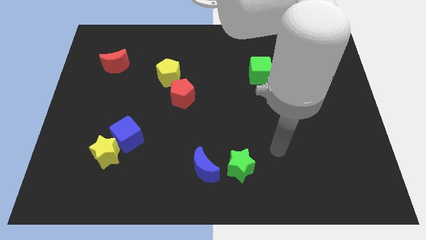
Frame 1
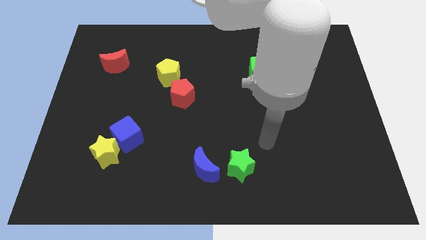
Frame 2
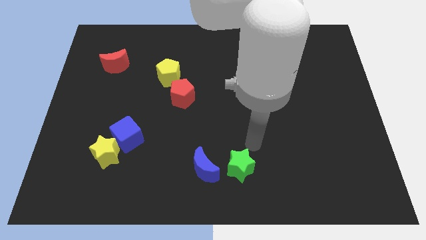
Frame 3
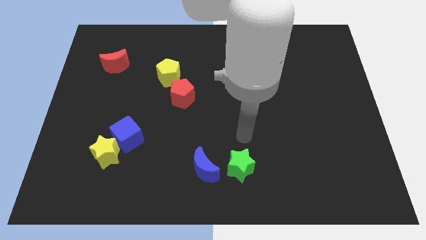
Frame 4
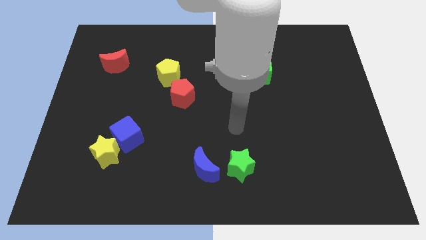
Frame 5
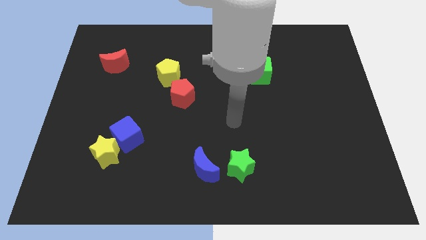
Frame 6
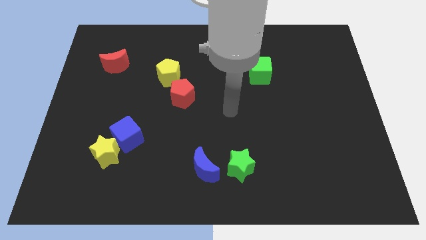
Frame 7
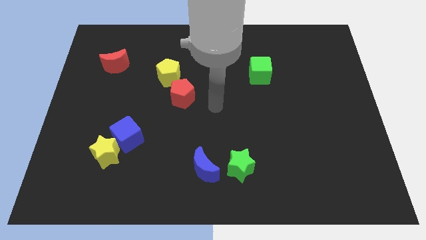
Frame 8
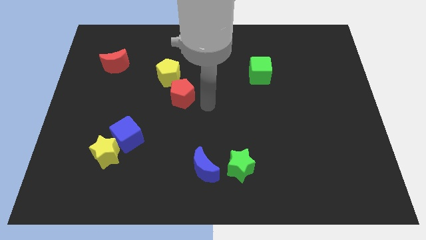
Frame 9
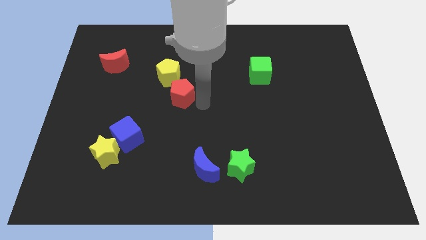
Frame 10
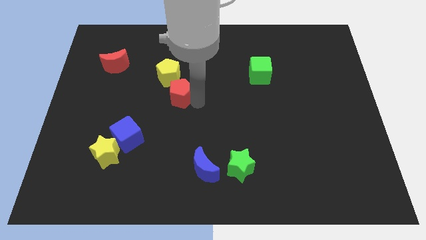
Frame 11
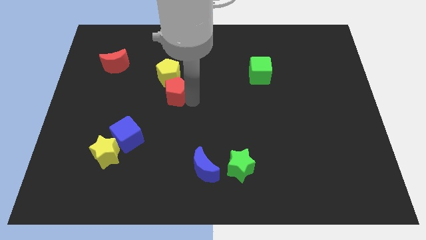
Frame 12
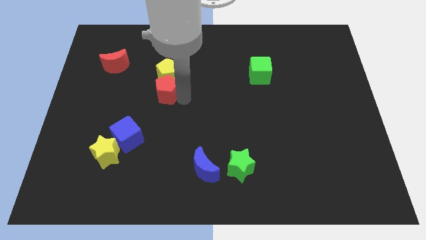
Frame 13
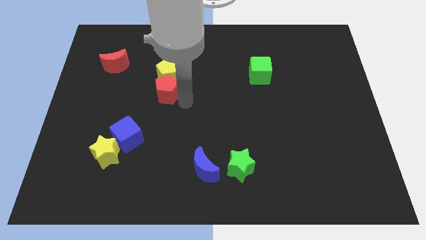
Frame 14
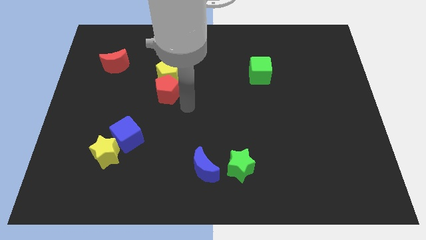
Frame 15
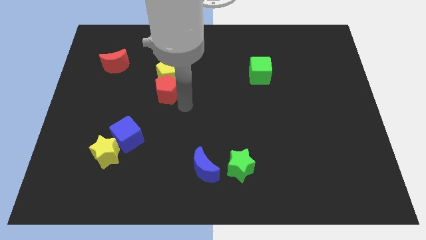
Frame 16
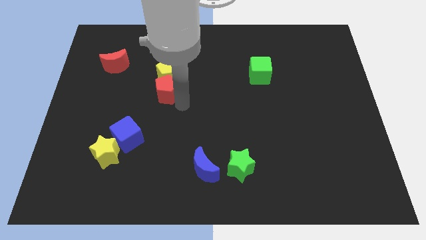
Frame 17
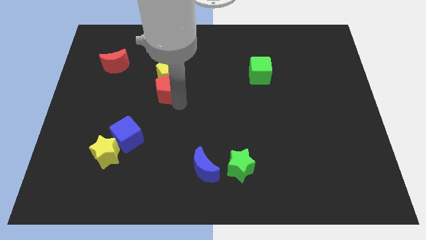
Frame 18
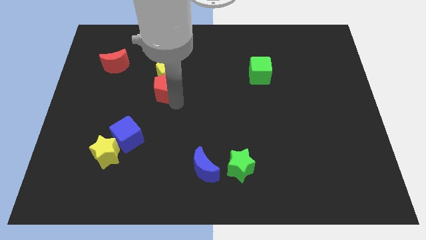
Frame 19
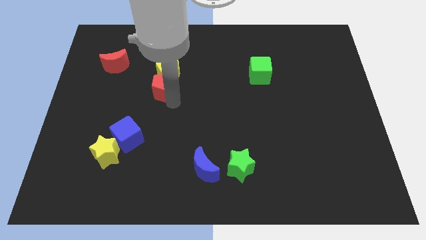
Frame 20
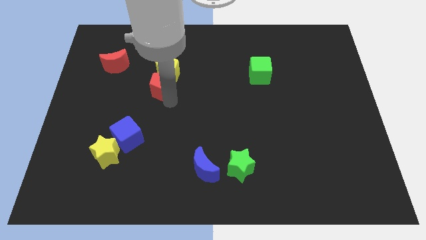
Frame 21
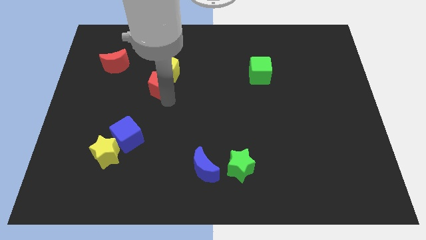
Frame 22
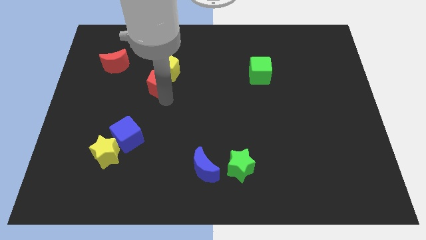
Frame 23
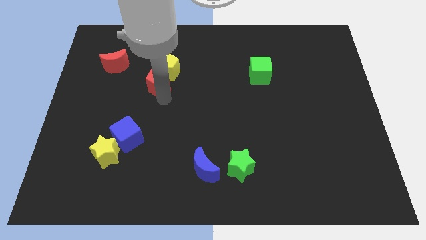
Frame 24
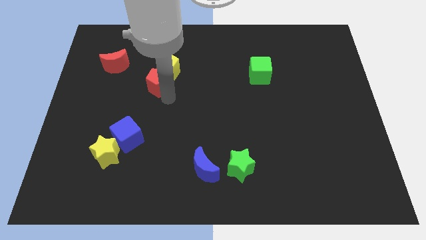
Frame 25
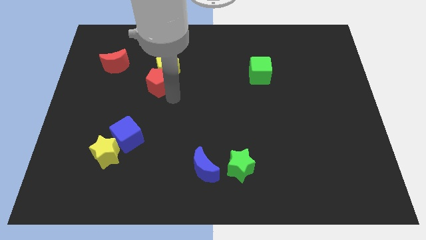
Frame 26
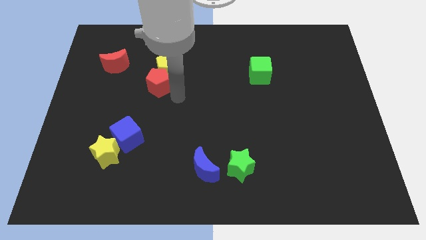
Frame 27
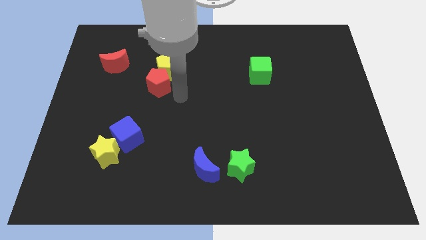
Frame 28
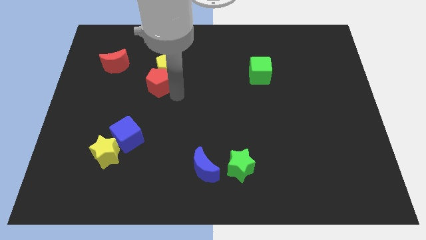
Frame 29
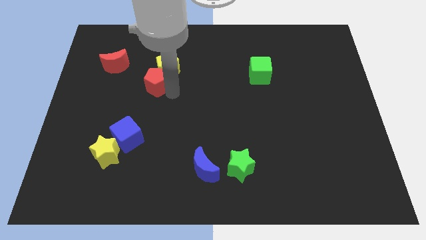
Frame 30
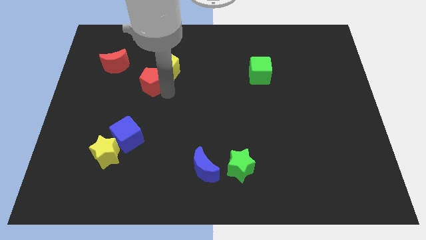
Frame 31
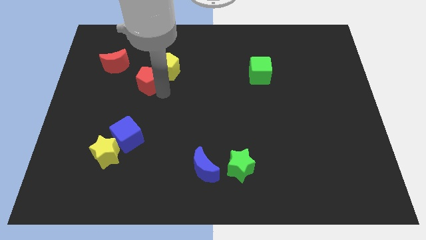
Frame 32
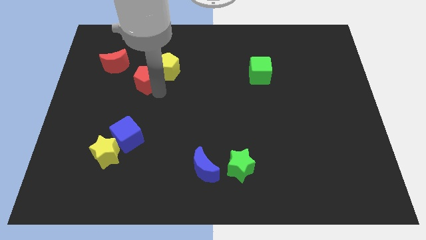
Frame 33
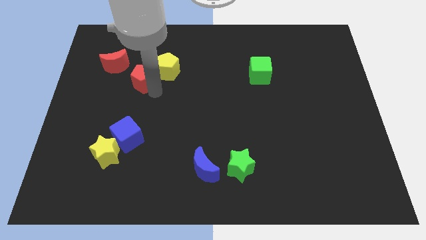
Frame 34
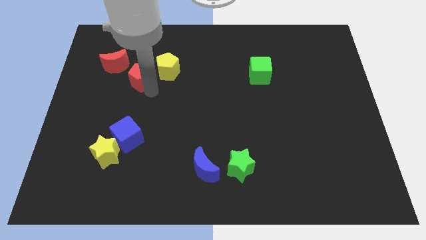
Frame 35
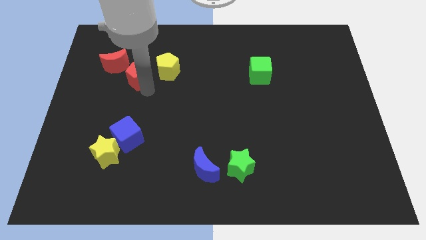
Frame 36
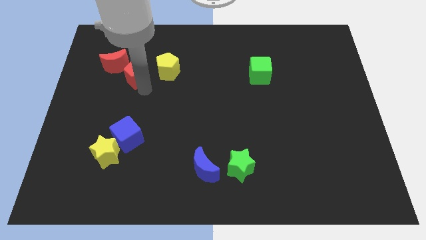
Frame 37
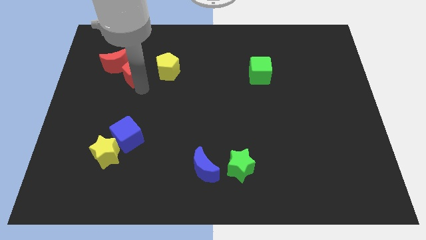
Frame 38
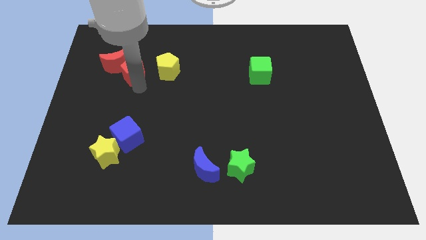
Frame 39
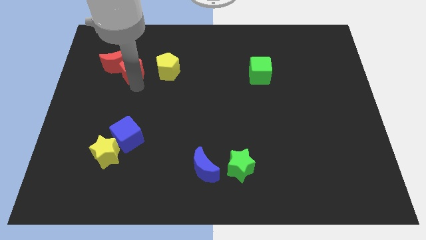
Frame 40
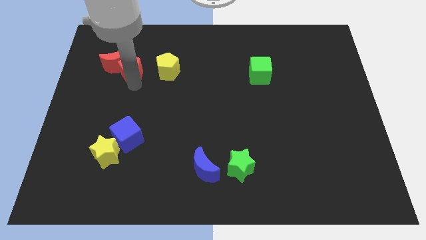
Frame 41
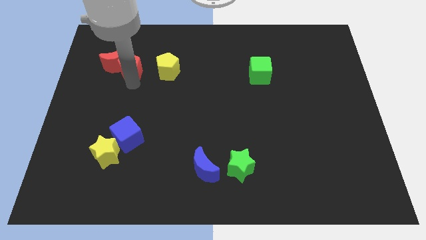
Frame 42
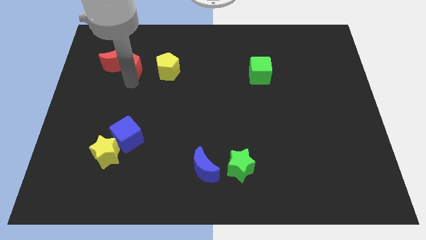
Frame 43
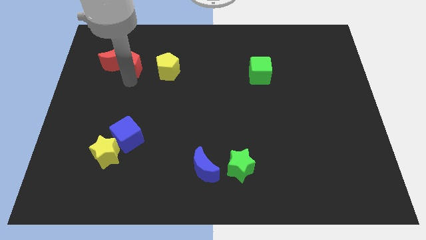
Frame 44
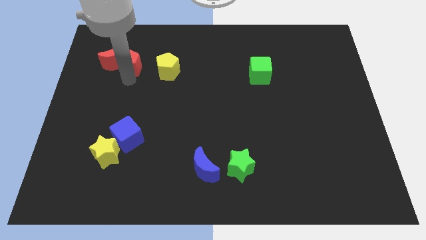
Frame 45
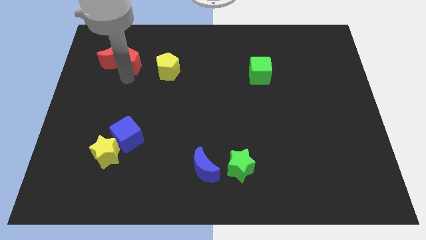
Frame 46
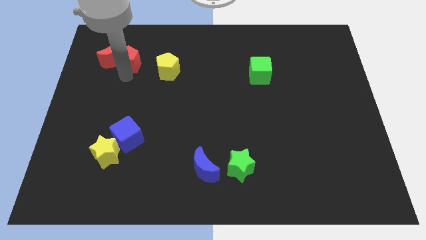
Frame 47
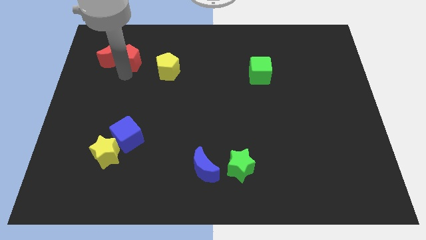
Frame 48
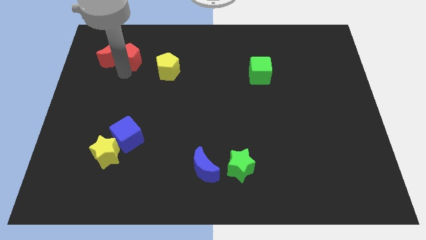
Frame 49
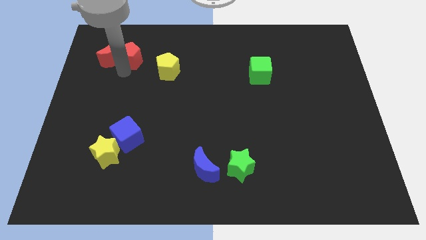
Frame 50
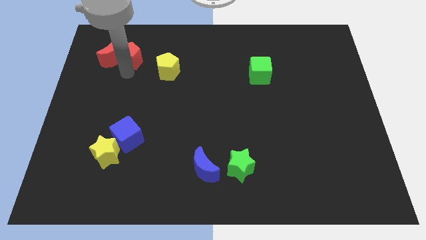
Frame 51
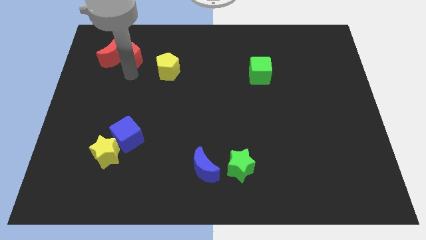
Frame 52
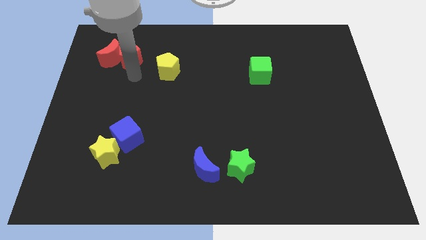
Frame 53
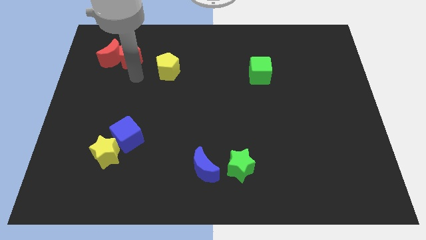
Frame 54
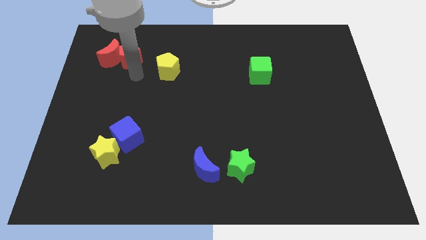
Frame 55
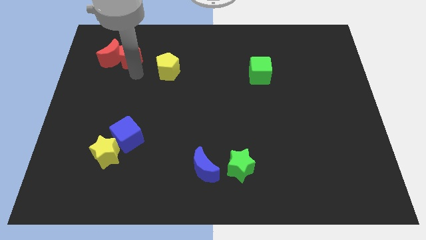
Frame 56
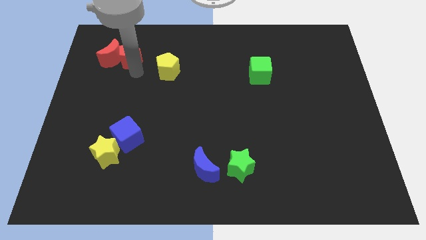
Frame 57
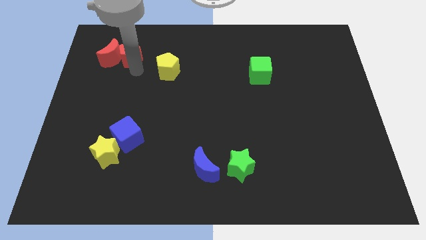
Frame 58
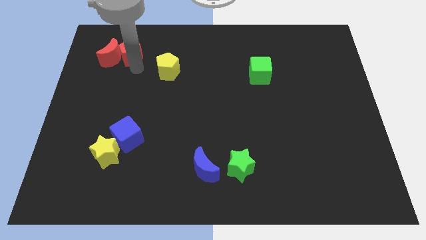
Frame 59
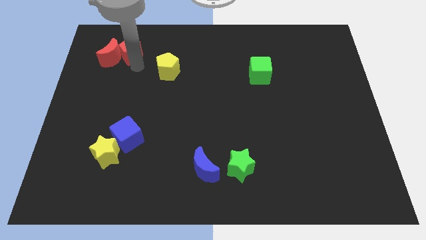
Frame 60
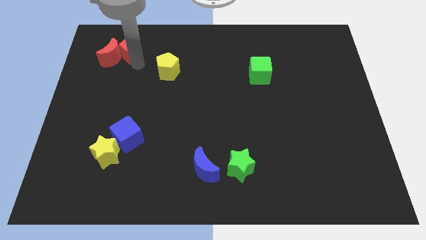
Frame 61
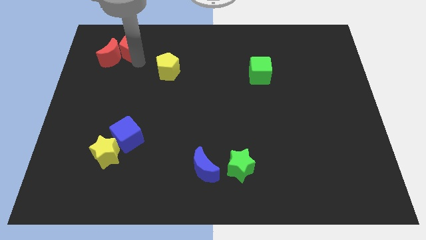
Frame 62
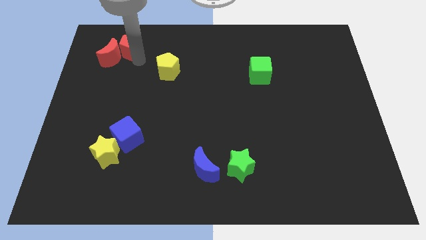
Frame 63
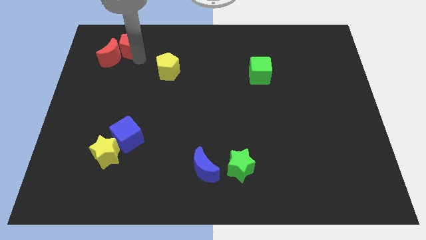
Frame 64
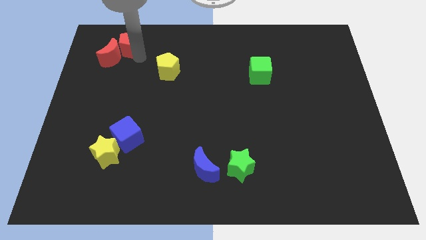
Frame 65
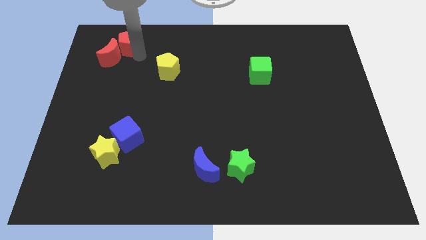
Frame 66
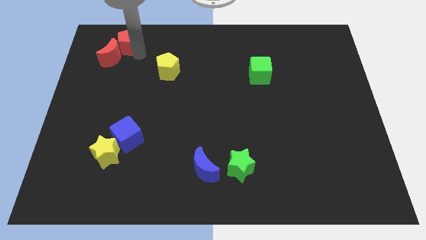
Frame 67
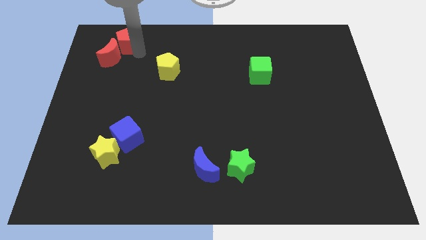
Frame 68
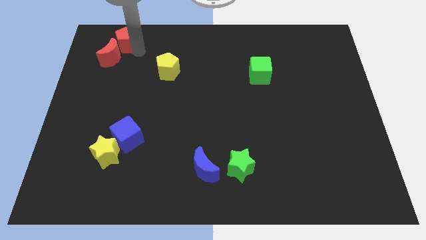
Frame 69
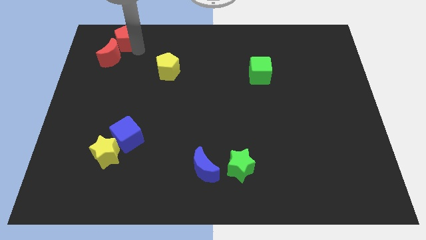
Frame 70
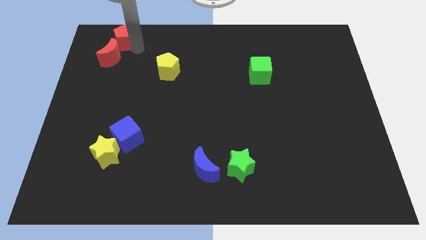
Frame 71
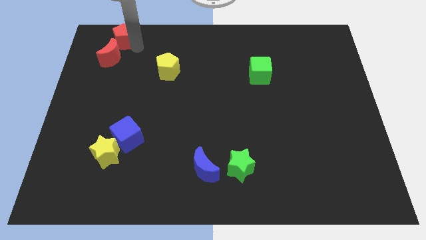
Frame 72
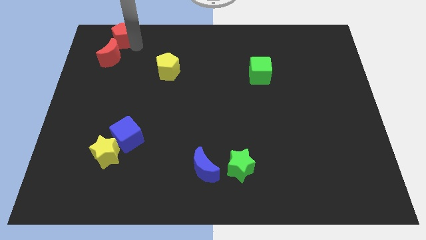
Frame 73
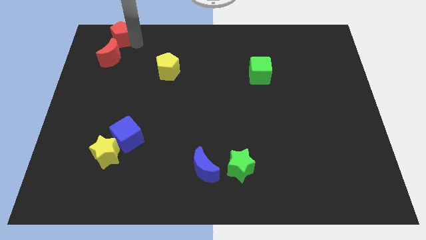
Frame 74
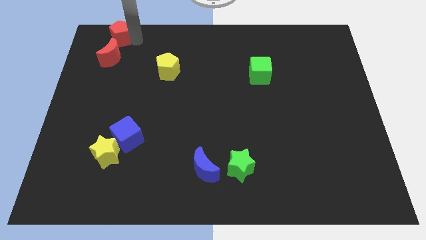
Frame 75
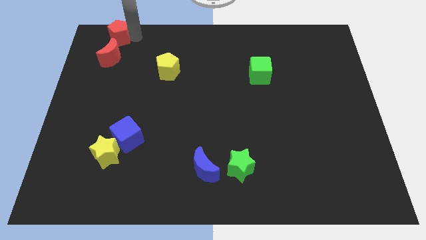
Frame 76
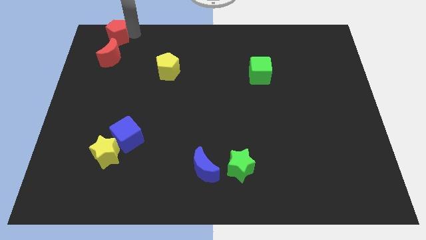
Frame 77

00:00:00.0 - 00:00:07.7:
slide the red pentagon to the top left corner
